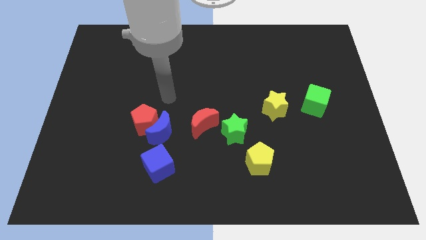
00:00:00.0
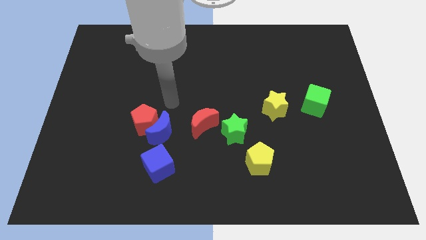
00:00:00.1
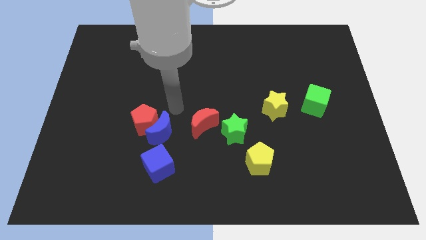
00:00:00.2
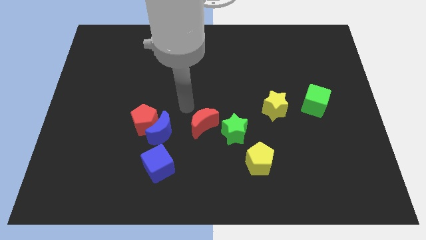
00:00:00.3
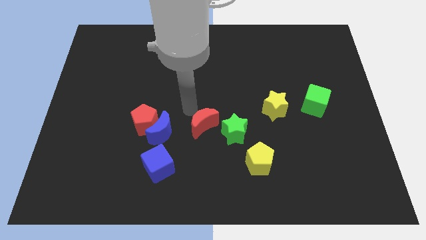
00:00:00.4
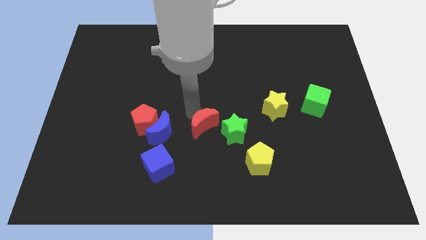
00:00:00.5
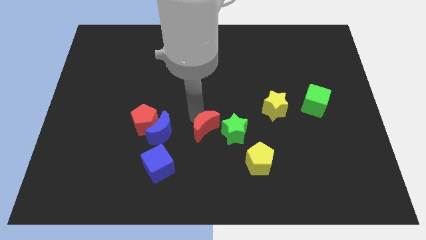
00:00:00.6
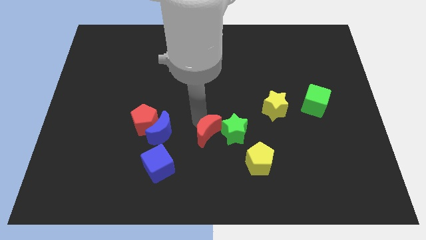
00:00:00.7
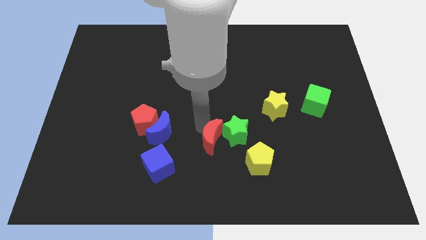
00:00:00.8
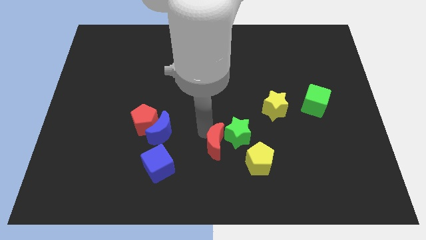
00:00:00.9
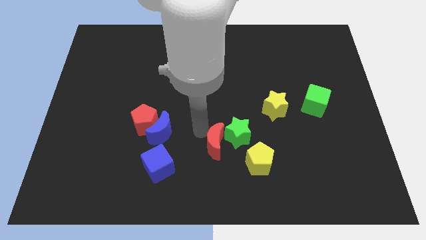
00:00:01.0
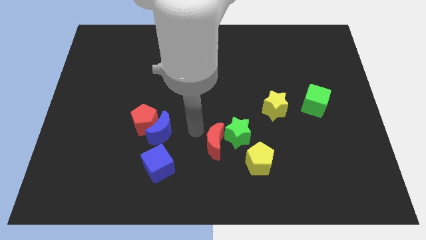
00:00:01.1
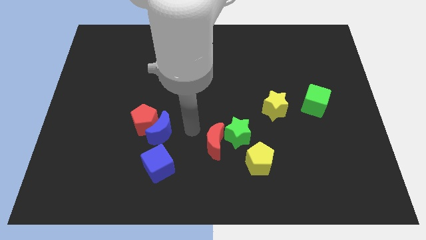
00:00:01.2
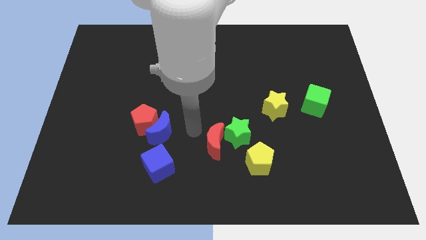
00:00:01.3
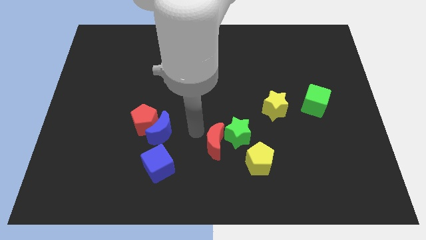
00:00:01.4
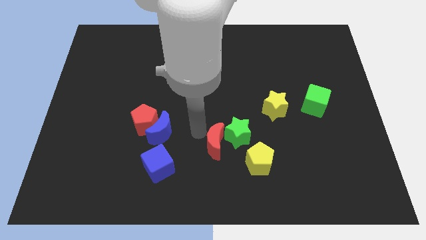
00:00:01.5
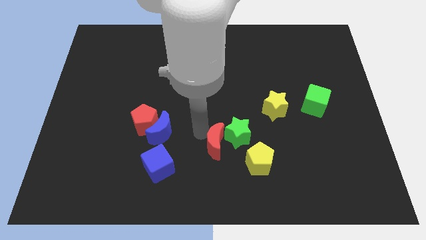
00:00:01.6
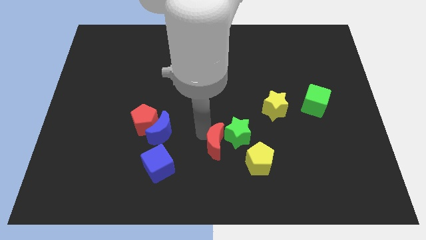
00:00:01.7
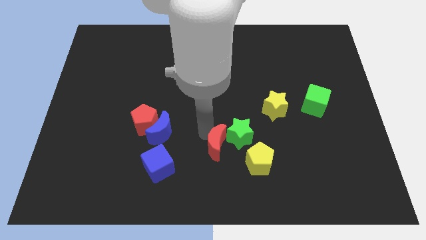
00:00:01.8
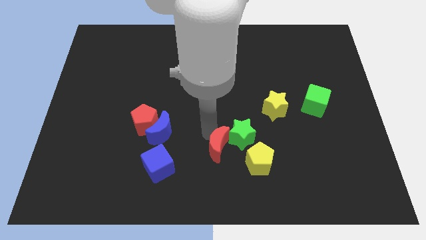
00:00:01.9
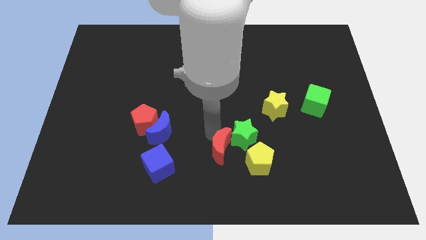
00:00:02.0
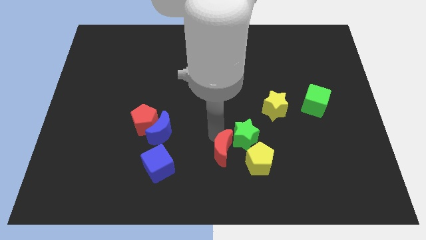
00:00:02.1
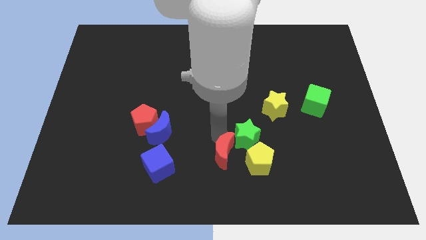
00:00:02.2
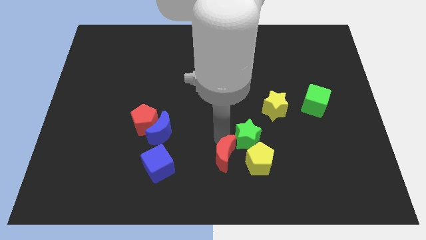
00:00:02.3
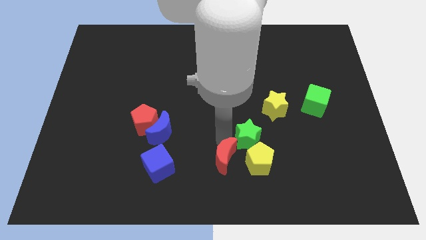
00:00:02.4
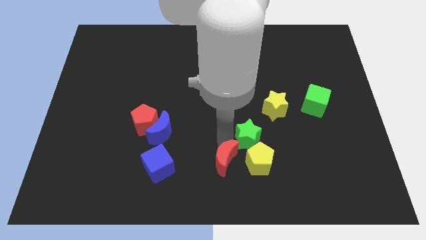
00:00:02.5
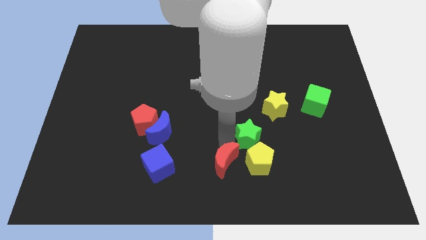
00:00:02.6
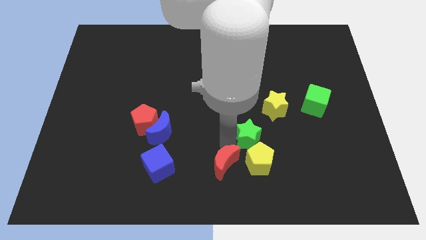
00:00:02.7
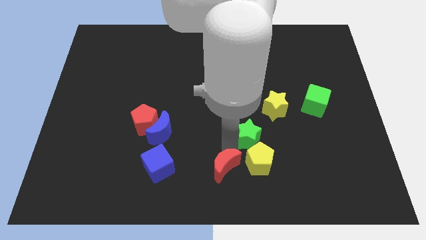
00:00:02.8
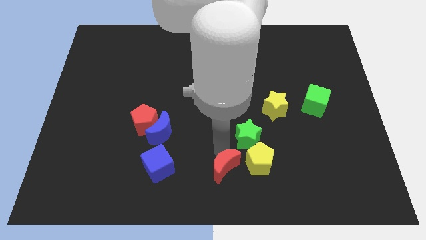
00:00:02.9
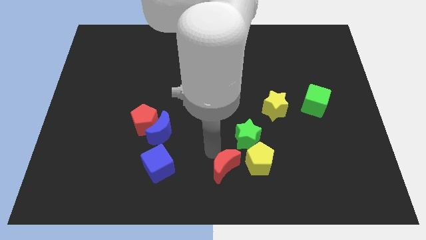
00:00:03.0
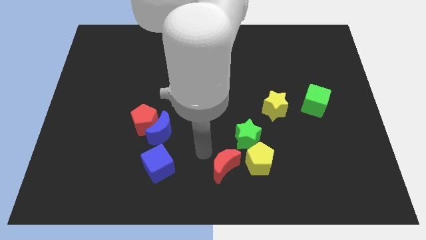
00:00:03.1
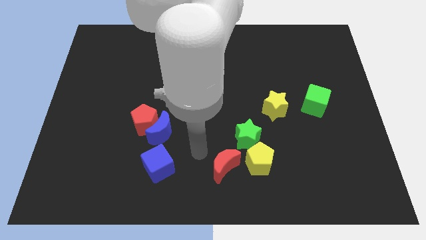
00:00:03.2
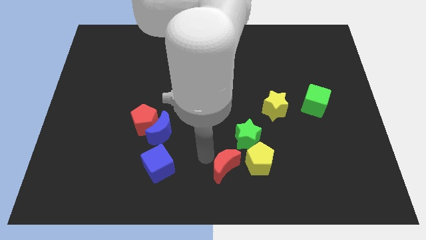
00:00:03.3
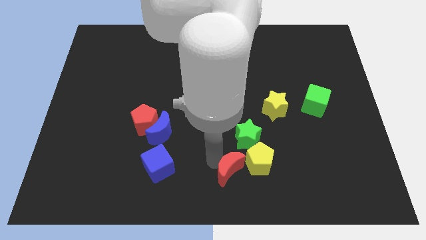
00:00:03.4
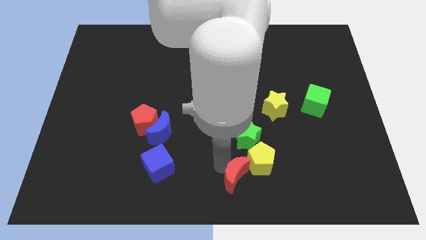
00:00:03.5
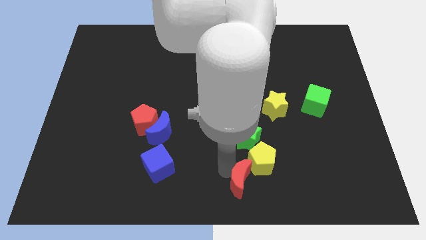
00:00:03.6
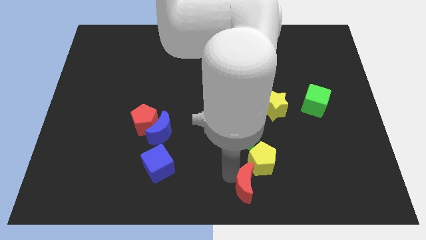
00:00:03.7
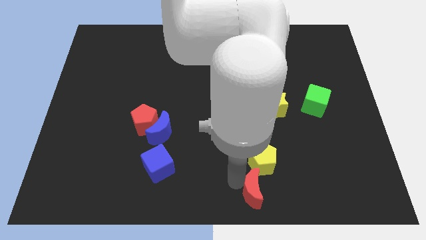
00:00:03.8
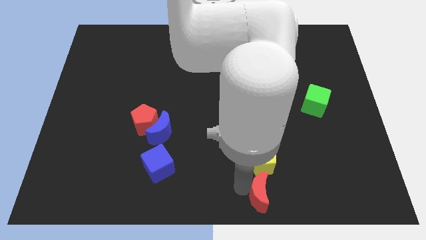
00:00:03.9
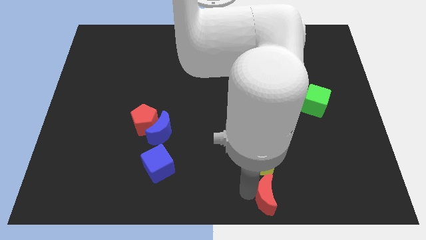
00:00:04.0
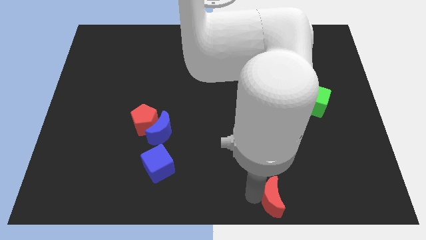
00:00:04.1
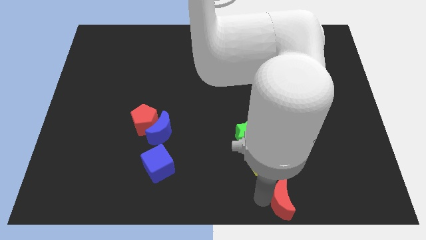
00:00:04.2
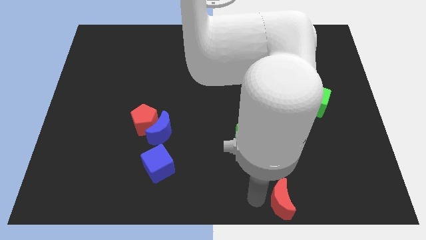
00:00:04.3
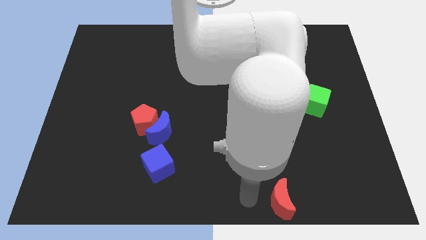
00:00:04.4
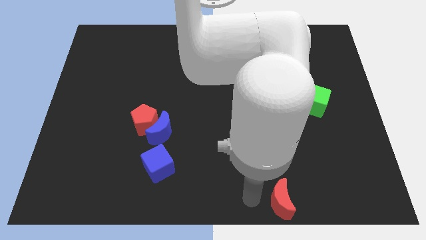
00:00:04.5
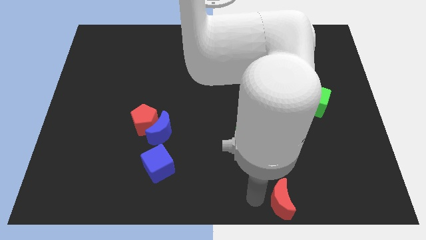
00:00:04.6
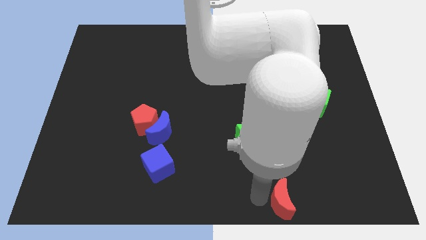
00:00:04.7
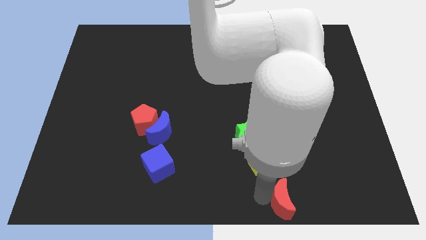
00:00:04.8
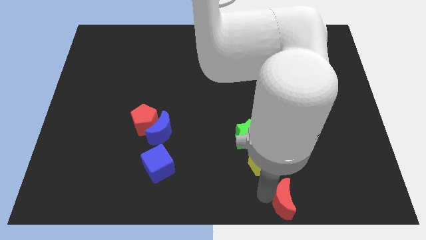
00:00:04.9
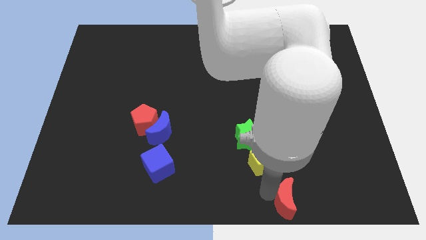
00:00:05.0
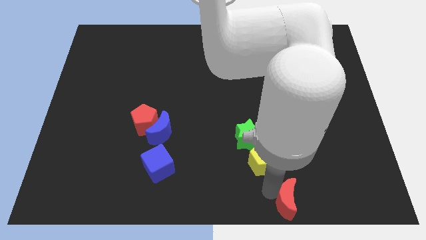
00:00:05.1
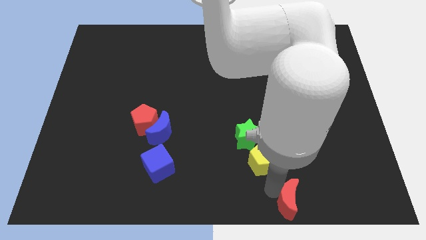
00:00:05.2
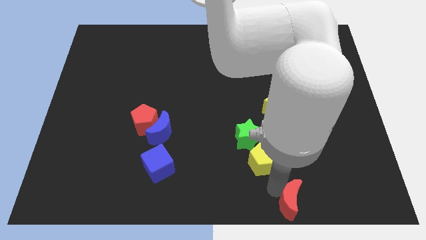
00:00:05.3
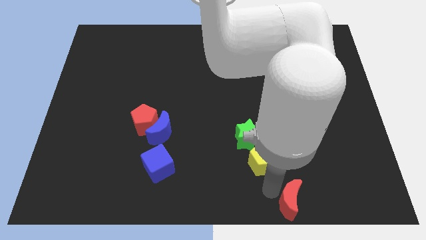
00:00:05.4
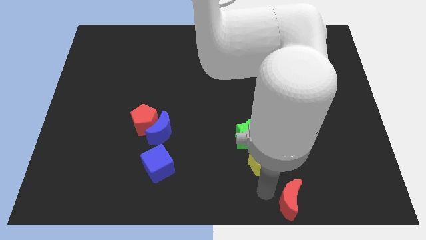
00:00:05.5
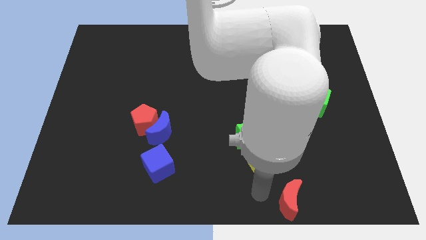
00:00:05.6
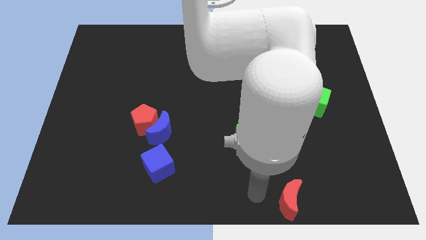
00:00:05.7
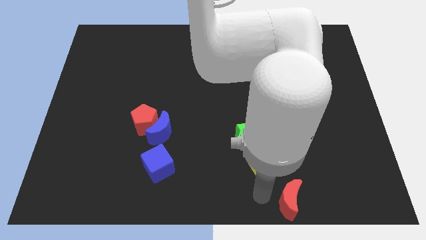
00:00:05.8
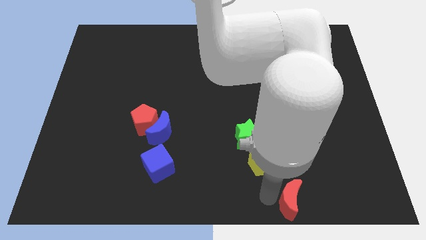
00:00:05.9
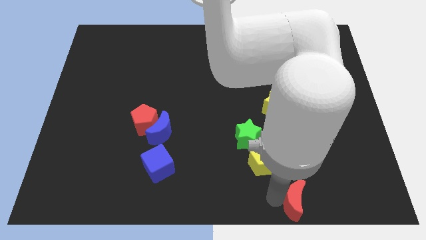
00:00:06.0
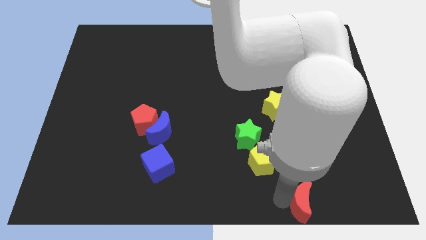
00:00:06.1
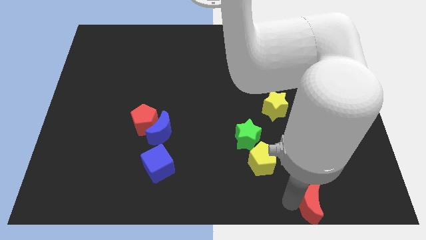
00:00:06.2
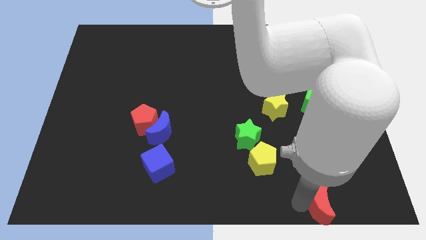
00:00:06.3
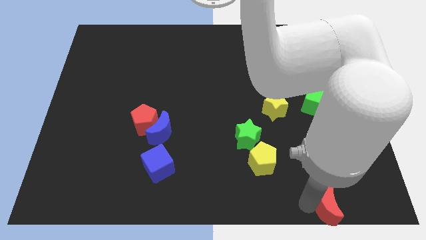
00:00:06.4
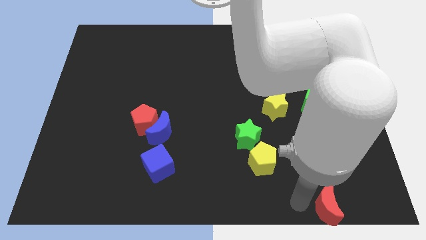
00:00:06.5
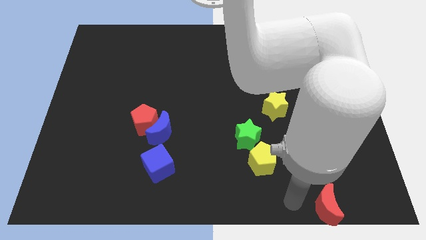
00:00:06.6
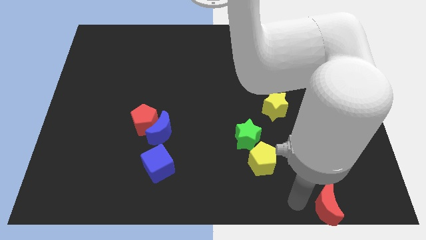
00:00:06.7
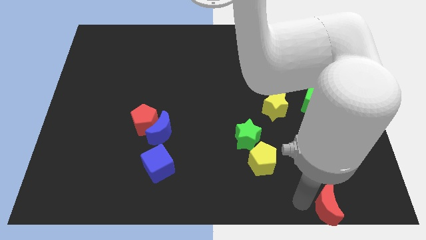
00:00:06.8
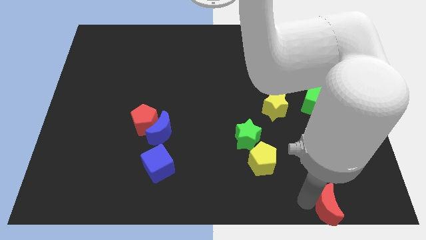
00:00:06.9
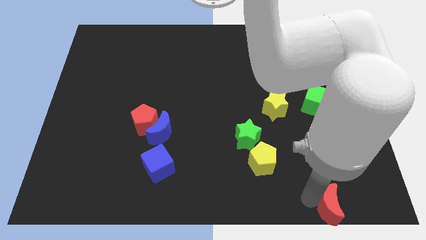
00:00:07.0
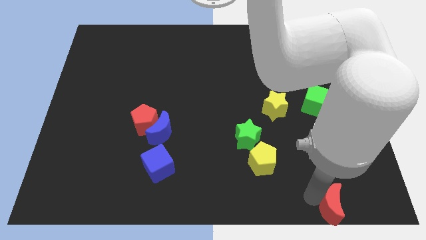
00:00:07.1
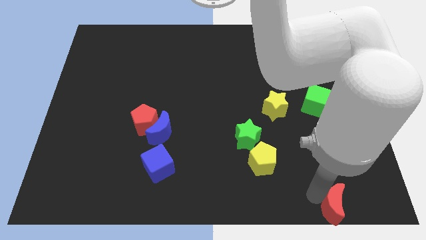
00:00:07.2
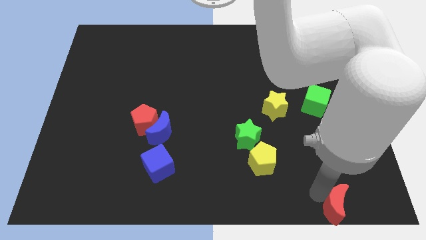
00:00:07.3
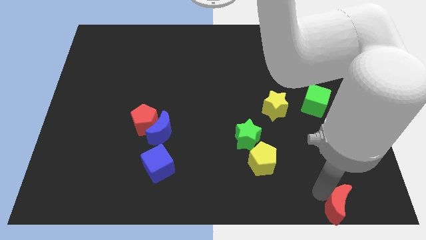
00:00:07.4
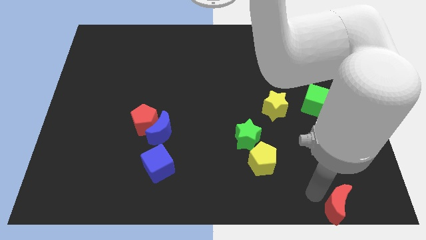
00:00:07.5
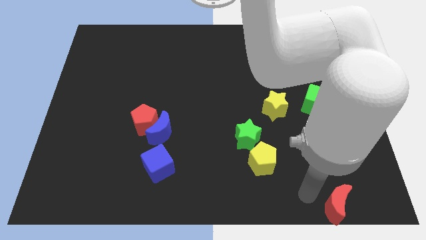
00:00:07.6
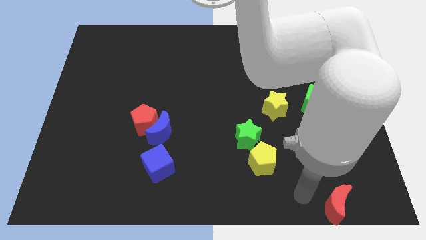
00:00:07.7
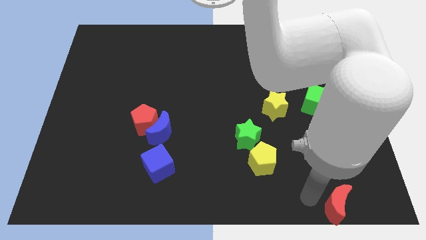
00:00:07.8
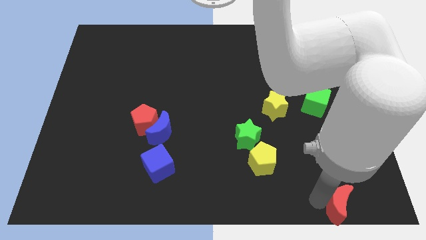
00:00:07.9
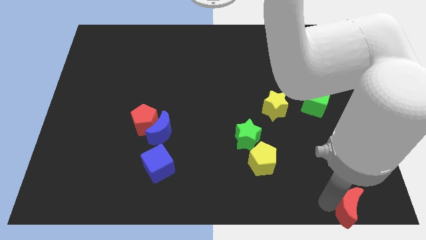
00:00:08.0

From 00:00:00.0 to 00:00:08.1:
move the red moon to the bottom right corner
